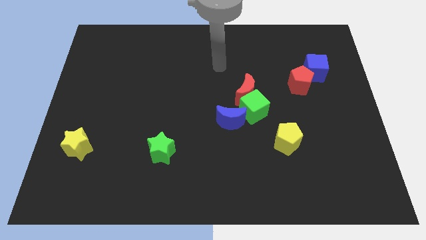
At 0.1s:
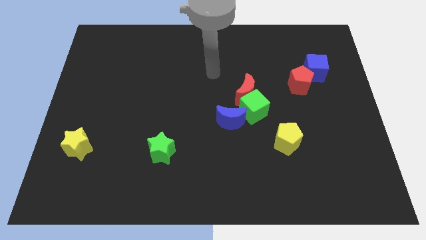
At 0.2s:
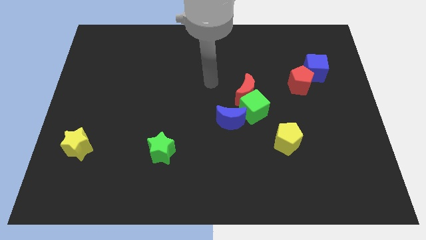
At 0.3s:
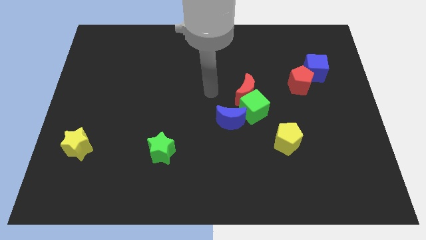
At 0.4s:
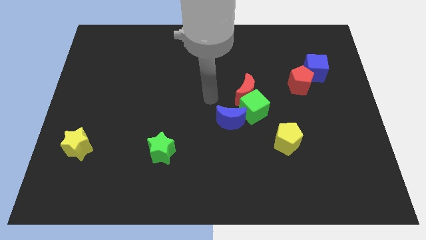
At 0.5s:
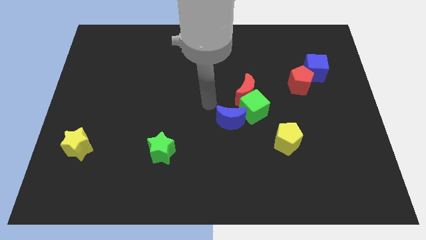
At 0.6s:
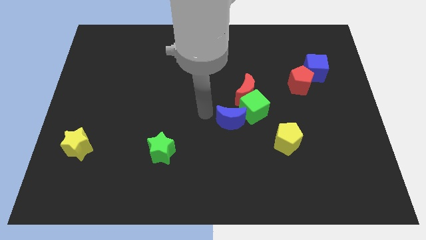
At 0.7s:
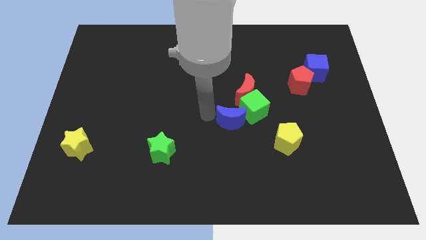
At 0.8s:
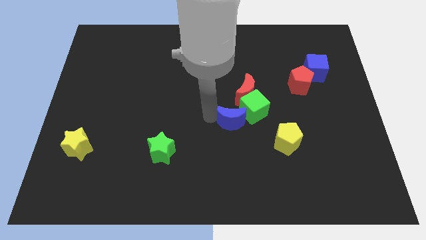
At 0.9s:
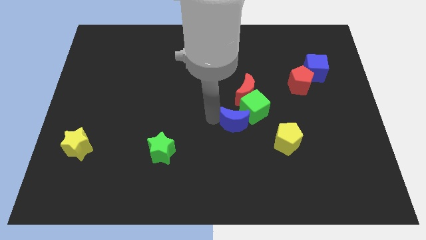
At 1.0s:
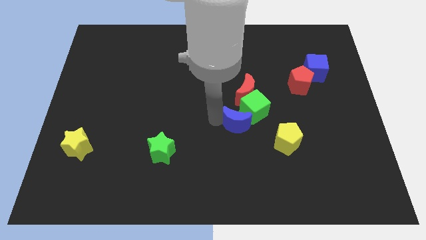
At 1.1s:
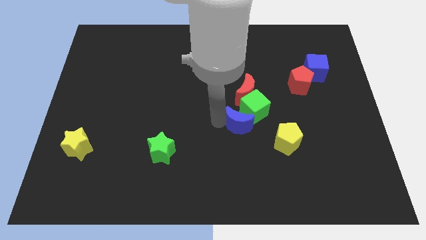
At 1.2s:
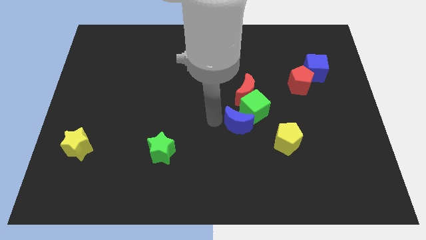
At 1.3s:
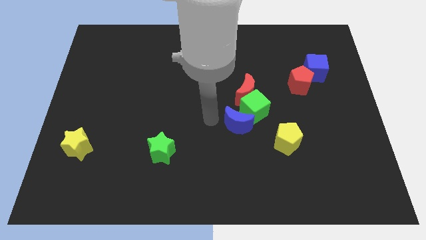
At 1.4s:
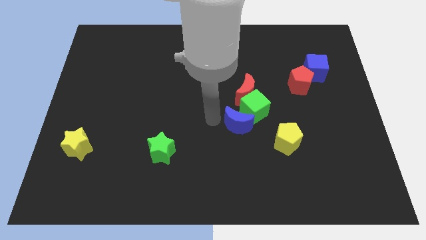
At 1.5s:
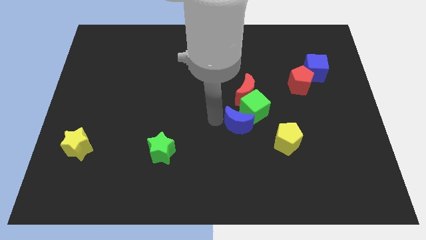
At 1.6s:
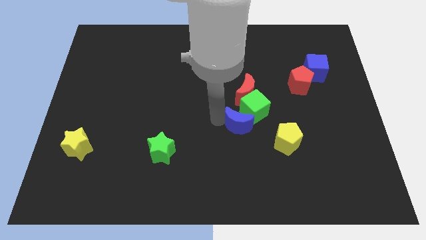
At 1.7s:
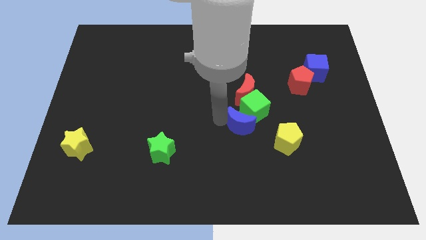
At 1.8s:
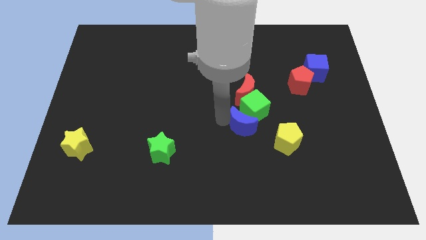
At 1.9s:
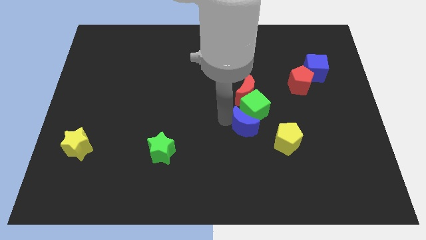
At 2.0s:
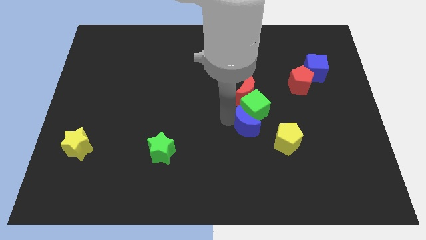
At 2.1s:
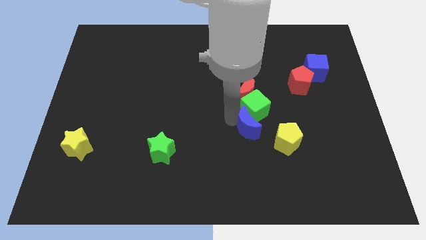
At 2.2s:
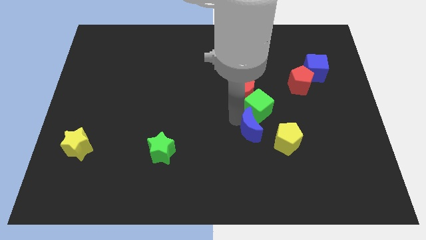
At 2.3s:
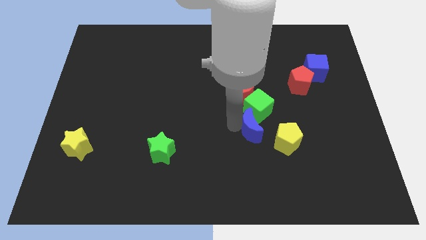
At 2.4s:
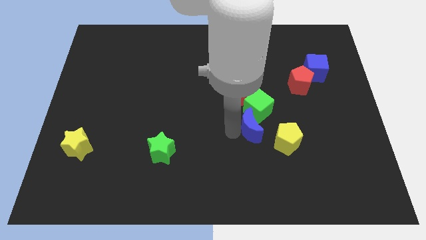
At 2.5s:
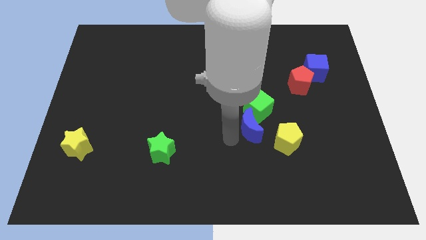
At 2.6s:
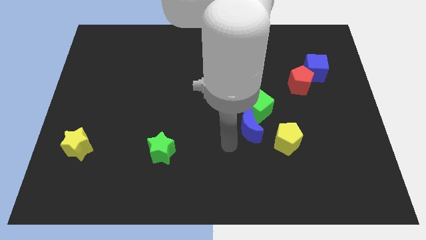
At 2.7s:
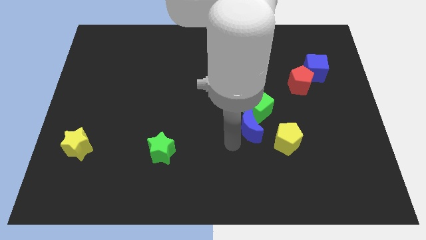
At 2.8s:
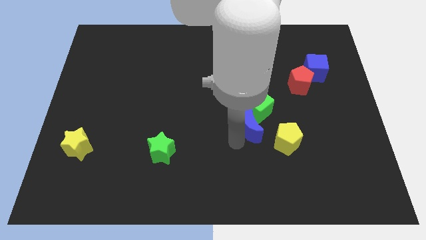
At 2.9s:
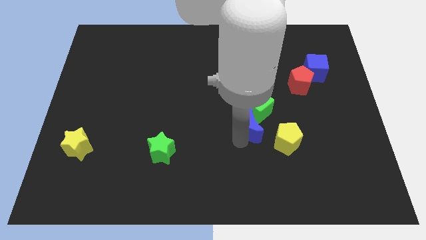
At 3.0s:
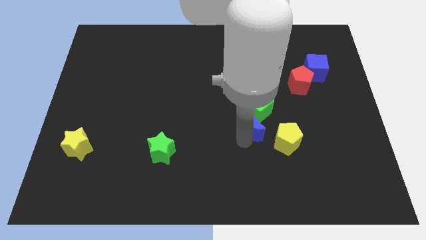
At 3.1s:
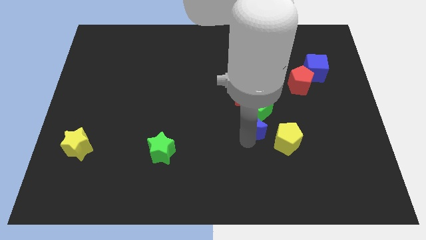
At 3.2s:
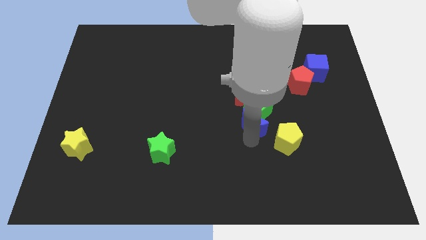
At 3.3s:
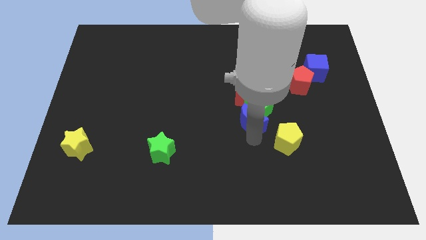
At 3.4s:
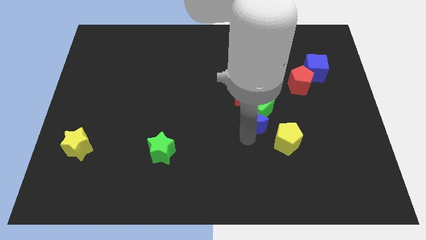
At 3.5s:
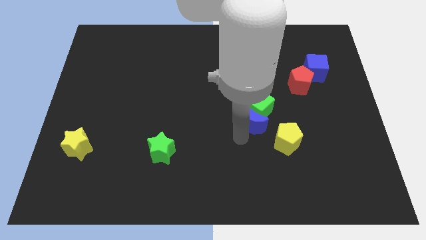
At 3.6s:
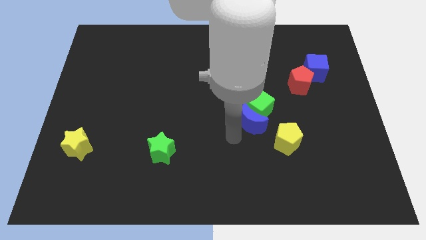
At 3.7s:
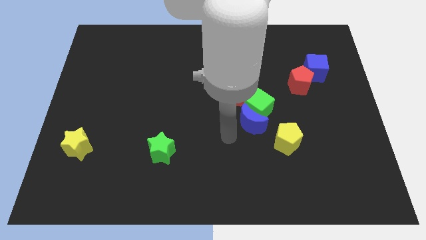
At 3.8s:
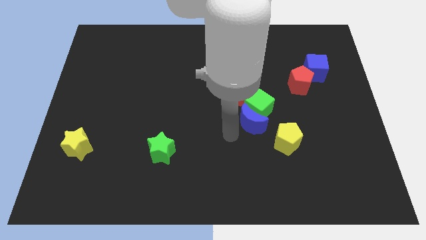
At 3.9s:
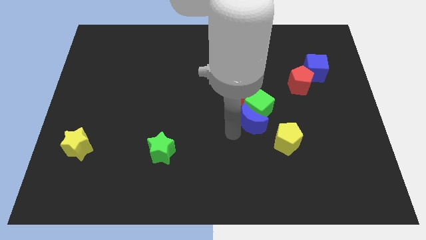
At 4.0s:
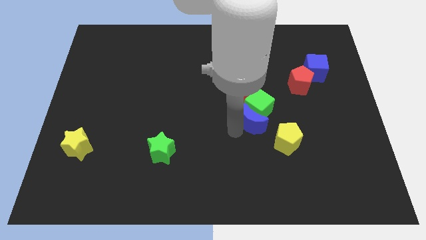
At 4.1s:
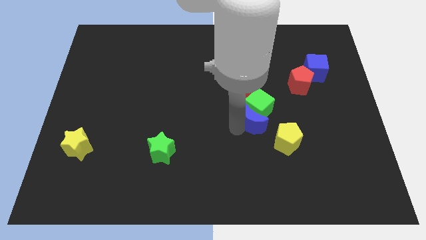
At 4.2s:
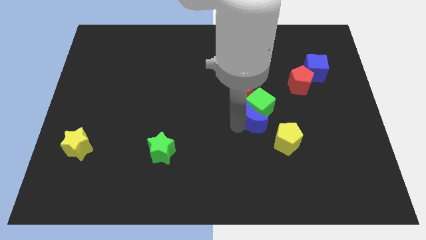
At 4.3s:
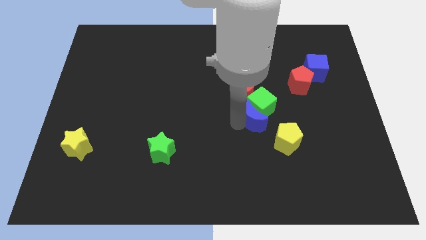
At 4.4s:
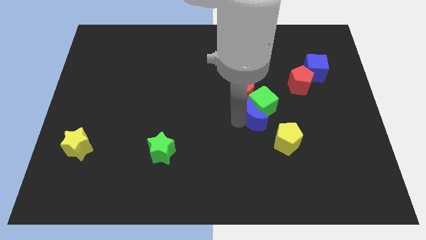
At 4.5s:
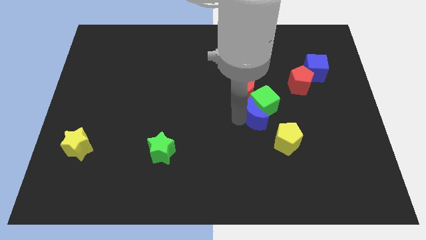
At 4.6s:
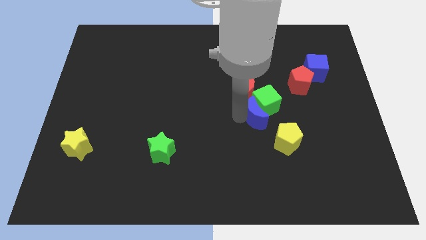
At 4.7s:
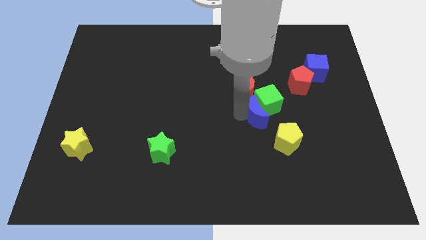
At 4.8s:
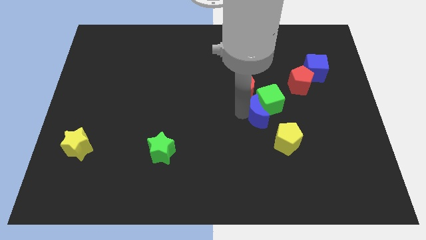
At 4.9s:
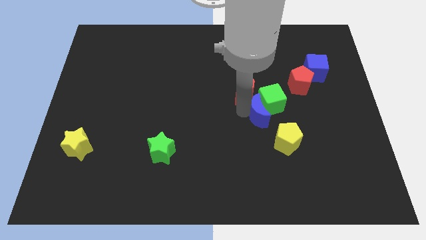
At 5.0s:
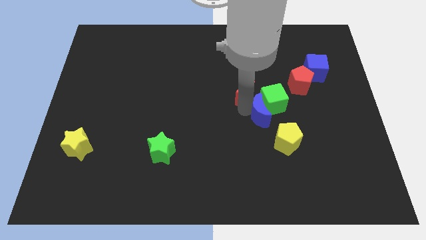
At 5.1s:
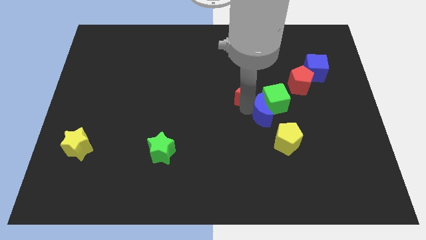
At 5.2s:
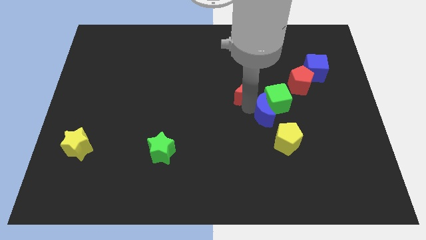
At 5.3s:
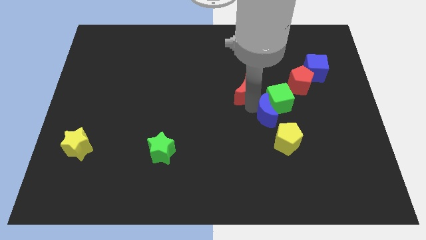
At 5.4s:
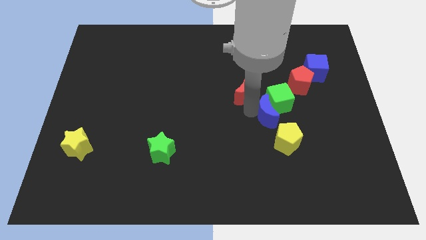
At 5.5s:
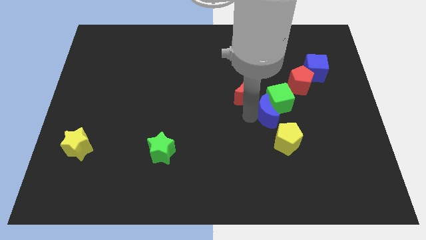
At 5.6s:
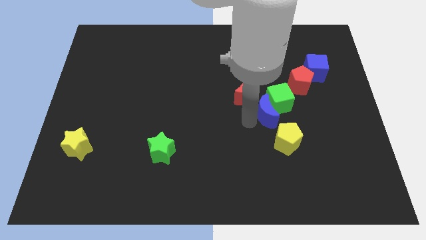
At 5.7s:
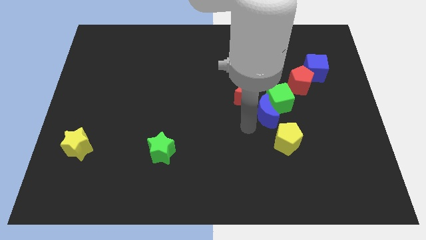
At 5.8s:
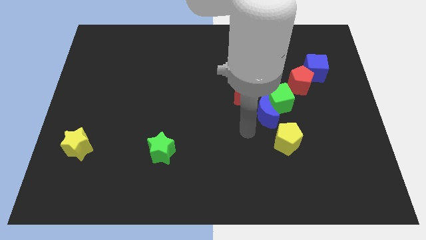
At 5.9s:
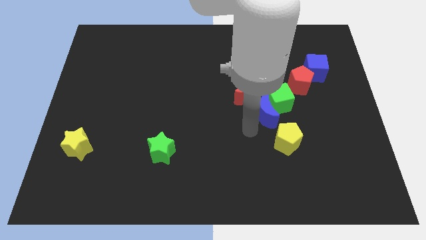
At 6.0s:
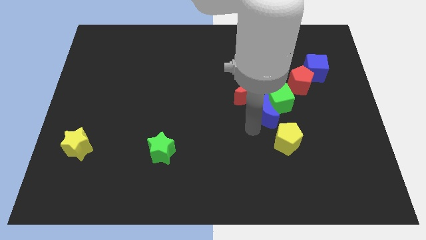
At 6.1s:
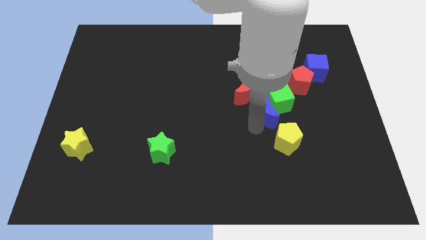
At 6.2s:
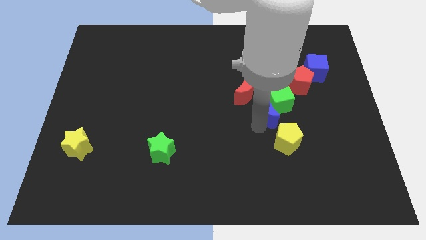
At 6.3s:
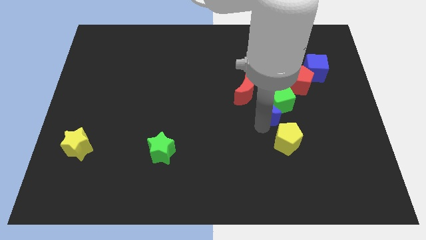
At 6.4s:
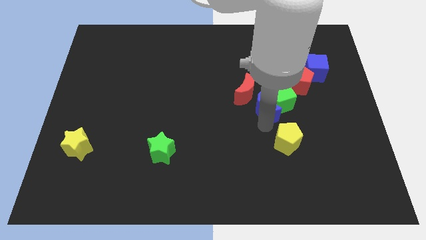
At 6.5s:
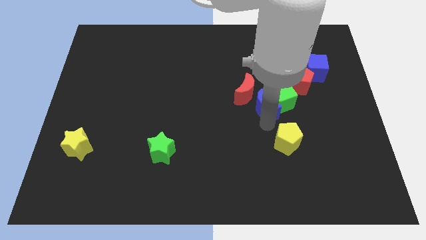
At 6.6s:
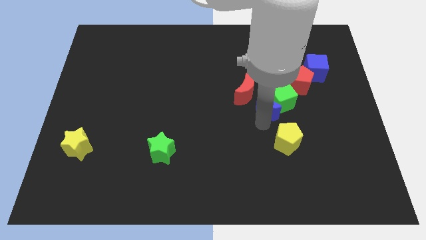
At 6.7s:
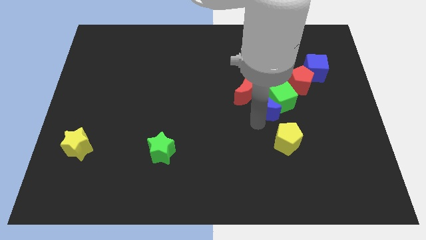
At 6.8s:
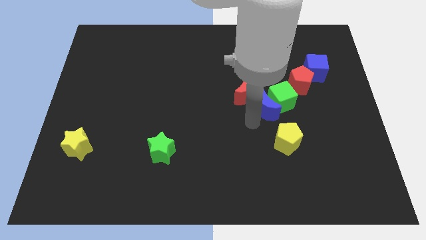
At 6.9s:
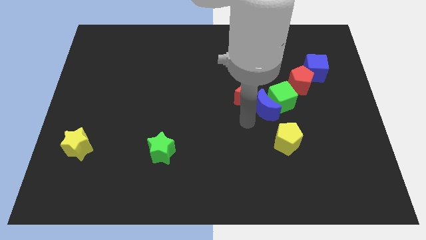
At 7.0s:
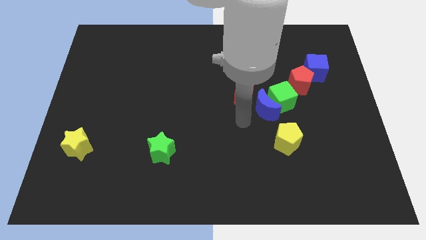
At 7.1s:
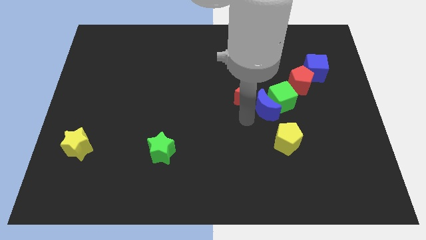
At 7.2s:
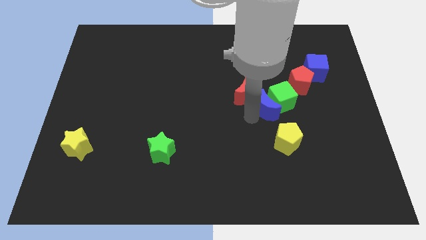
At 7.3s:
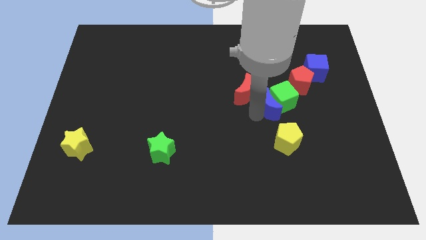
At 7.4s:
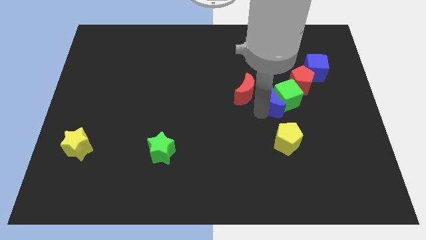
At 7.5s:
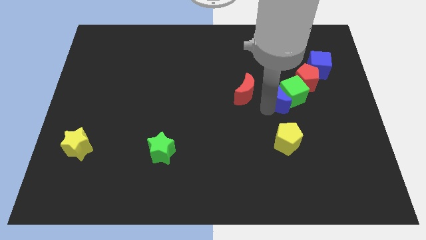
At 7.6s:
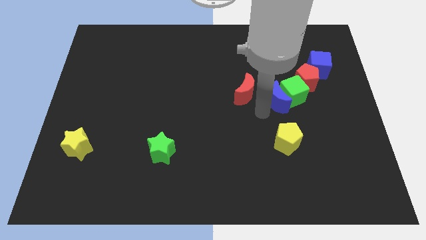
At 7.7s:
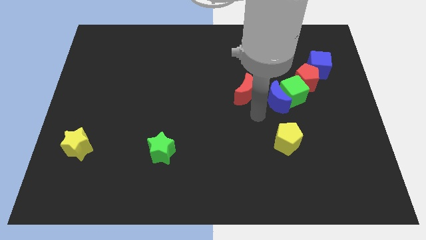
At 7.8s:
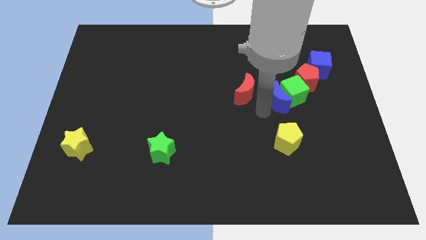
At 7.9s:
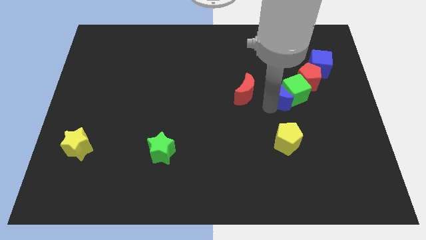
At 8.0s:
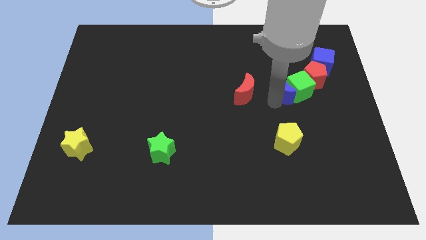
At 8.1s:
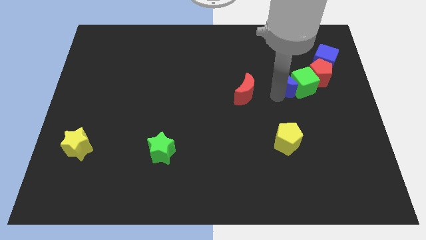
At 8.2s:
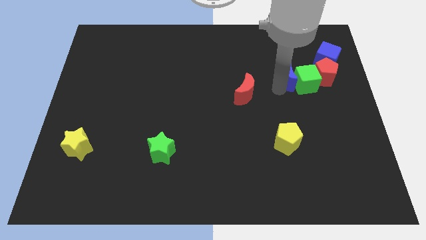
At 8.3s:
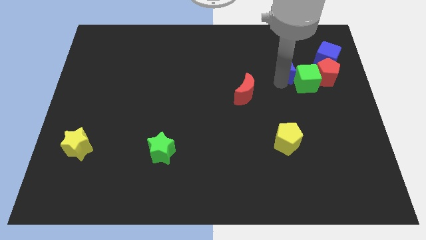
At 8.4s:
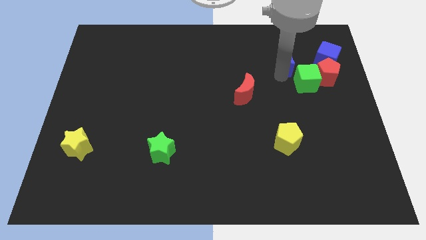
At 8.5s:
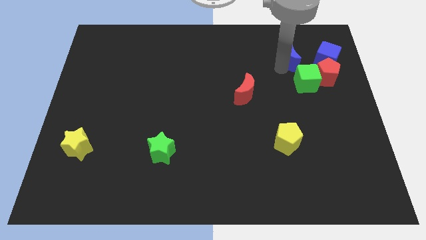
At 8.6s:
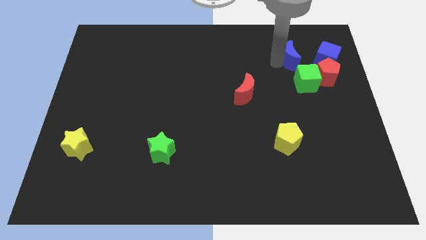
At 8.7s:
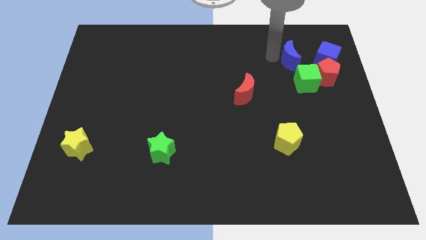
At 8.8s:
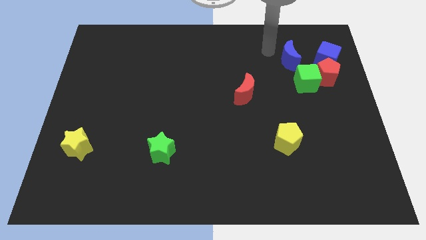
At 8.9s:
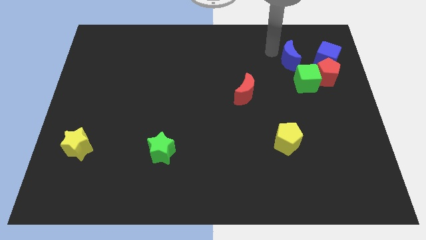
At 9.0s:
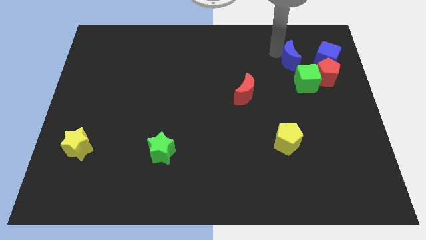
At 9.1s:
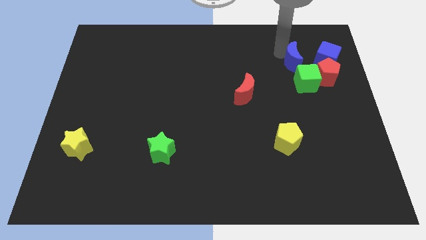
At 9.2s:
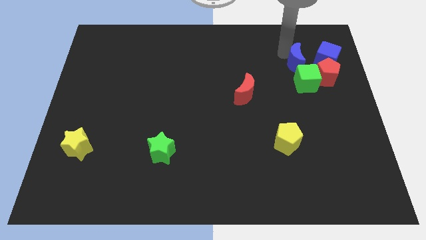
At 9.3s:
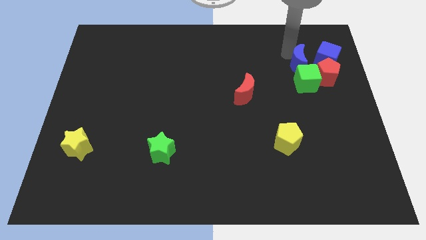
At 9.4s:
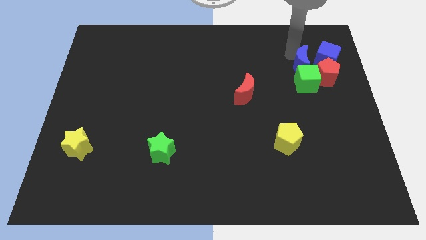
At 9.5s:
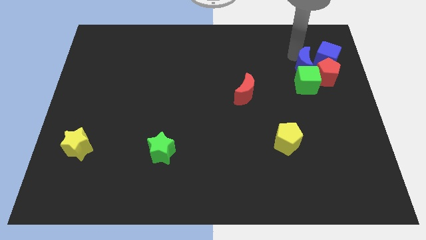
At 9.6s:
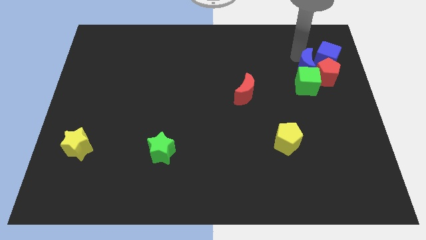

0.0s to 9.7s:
move the blue moon to the red pentagon
